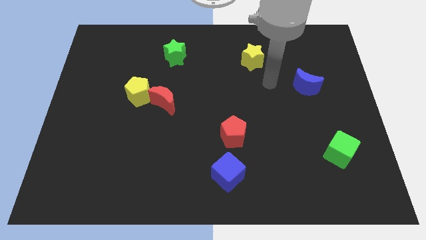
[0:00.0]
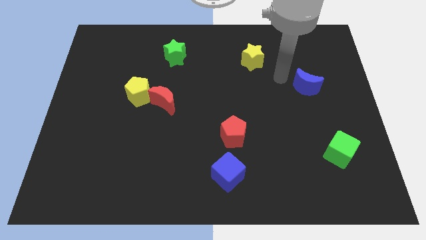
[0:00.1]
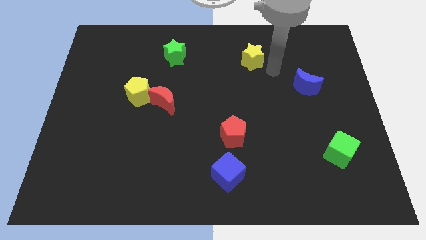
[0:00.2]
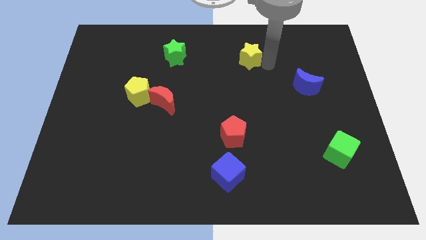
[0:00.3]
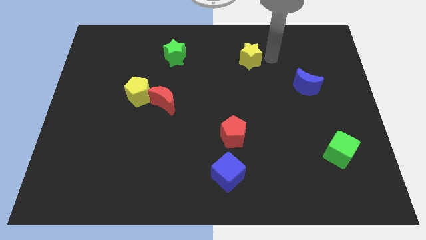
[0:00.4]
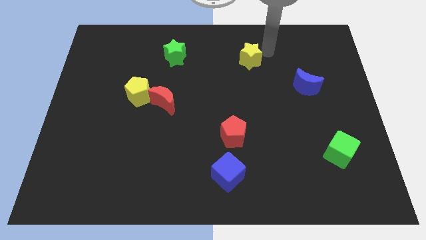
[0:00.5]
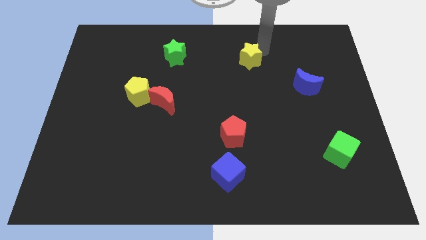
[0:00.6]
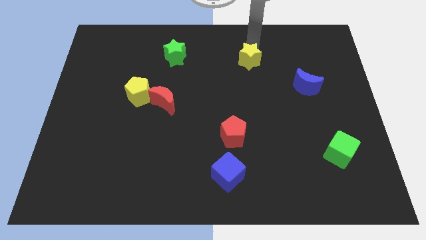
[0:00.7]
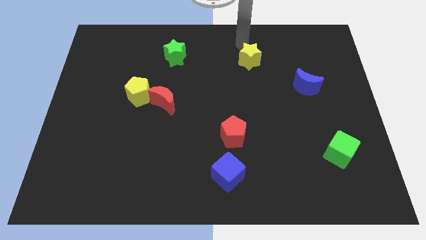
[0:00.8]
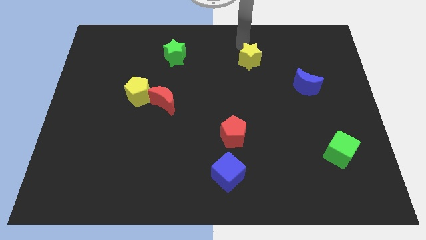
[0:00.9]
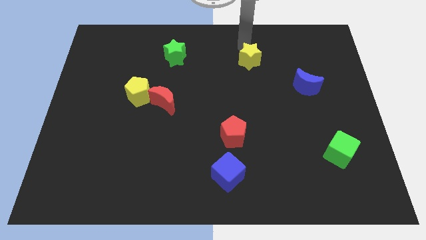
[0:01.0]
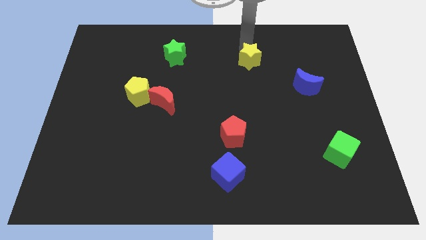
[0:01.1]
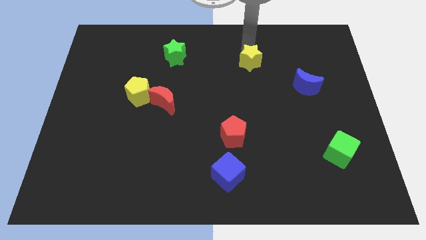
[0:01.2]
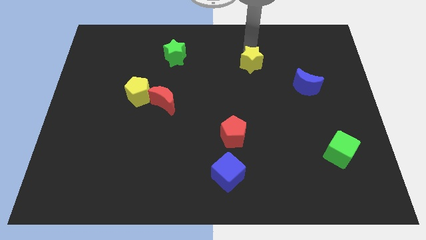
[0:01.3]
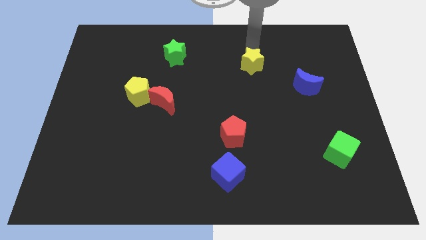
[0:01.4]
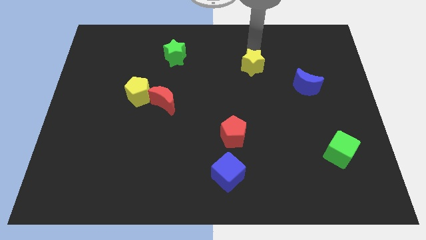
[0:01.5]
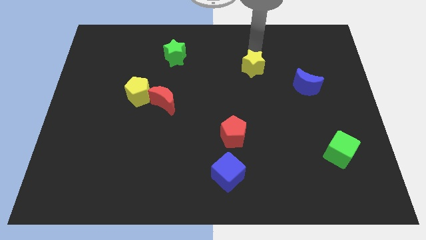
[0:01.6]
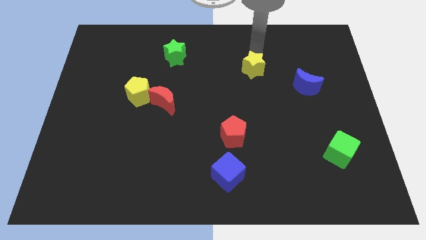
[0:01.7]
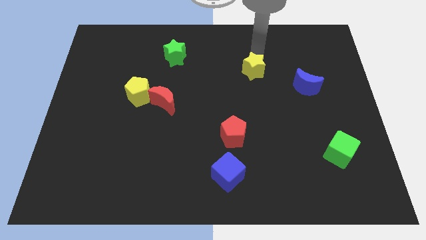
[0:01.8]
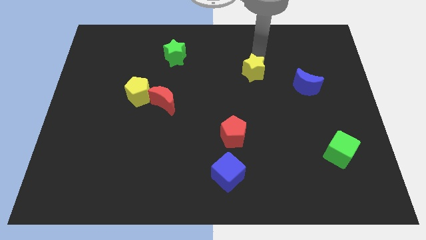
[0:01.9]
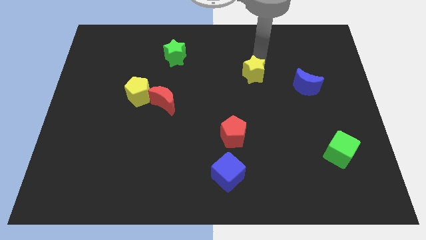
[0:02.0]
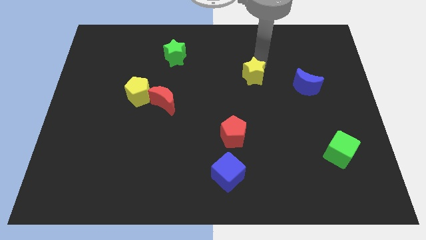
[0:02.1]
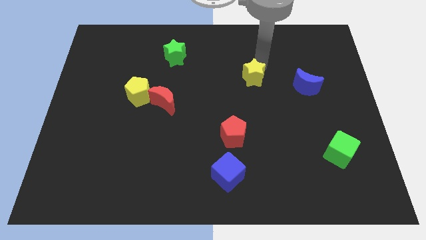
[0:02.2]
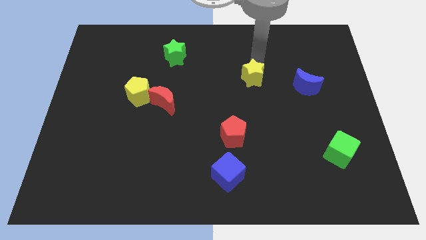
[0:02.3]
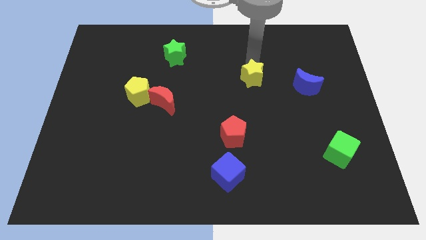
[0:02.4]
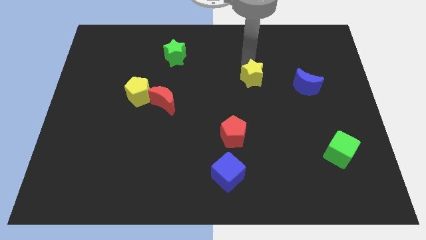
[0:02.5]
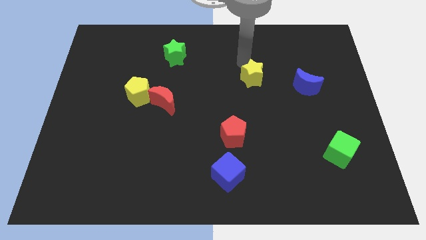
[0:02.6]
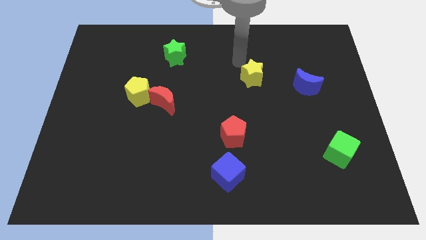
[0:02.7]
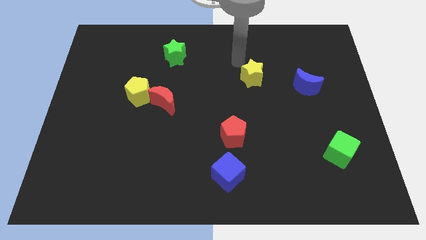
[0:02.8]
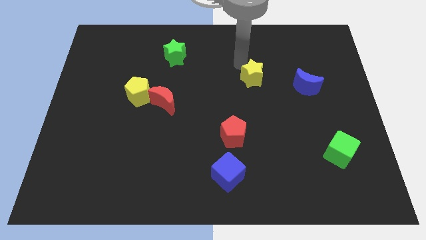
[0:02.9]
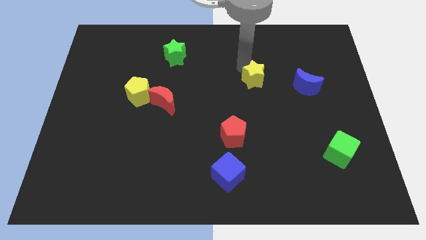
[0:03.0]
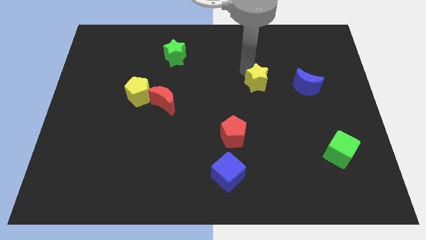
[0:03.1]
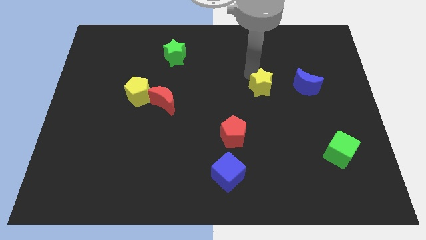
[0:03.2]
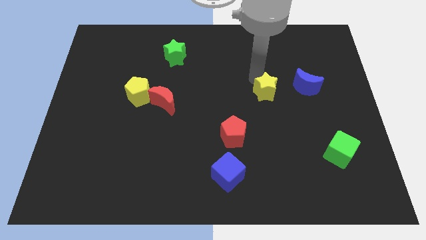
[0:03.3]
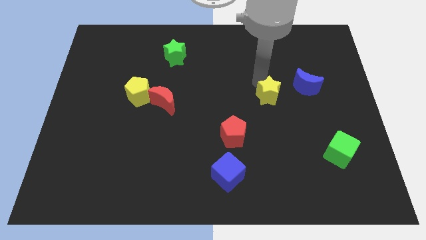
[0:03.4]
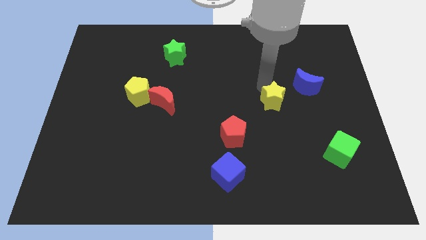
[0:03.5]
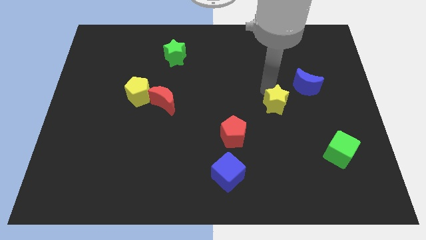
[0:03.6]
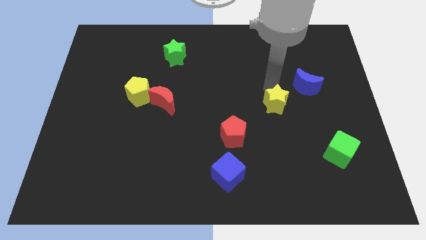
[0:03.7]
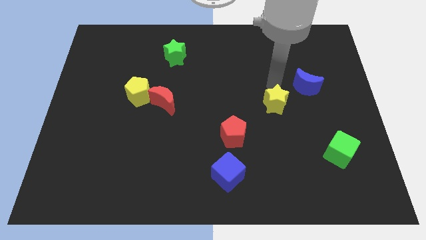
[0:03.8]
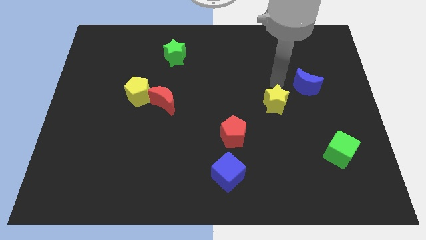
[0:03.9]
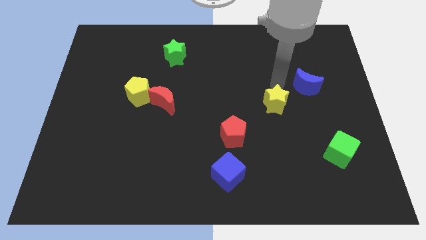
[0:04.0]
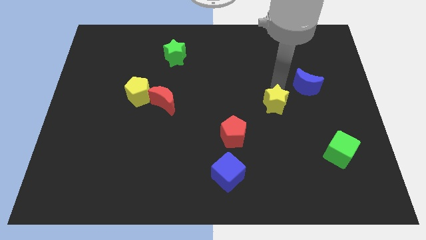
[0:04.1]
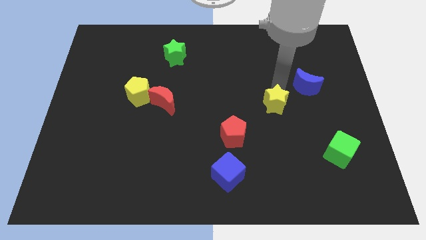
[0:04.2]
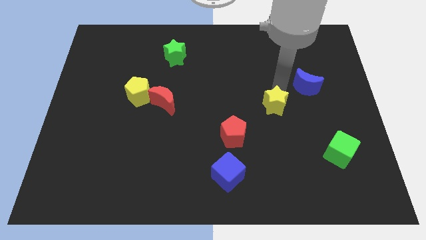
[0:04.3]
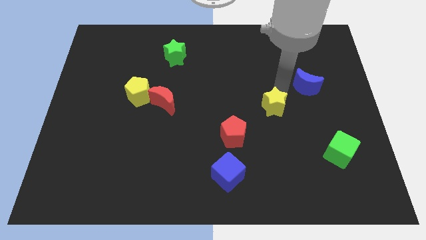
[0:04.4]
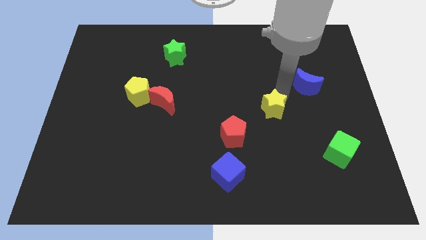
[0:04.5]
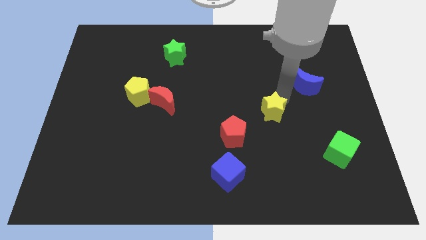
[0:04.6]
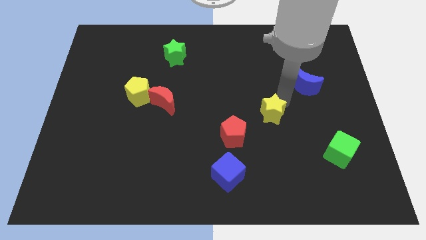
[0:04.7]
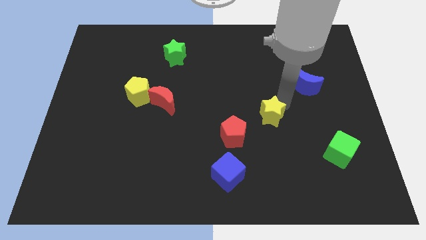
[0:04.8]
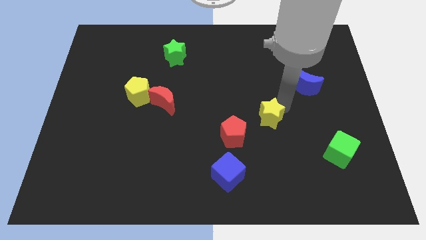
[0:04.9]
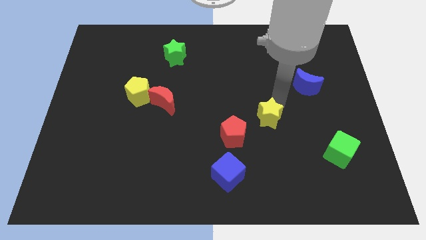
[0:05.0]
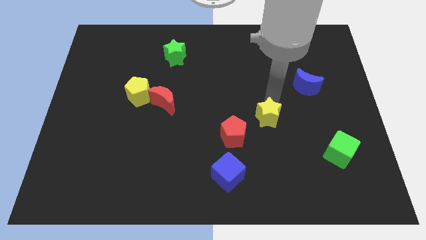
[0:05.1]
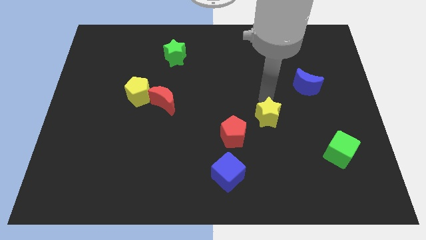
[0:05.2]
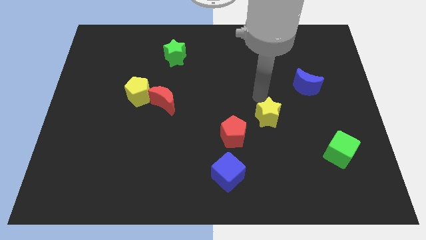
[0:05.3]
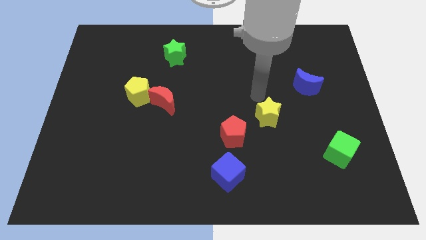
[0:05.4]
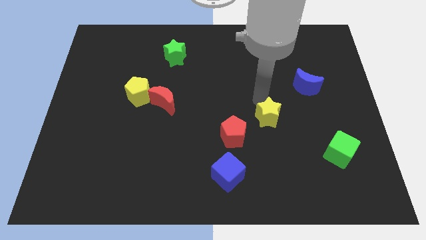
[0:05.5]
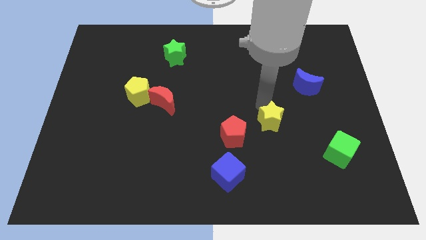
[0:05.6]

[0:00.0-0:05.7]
move the yellow star right of the red pentagon

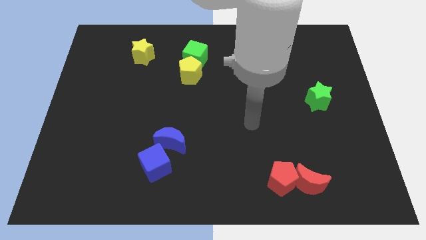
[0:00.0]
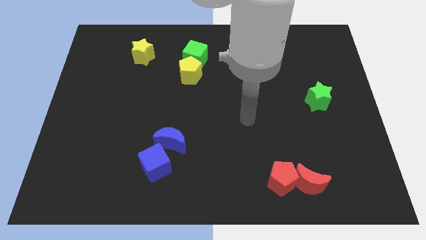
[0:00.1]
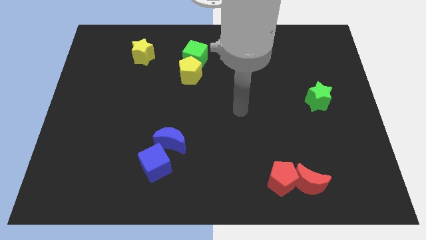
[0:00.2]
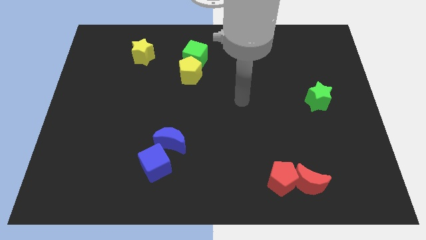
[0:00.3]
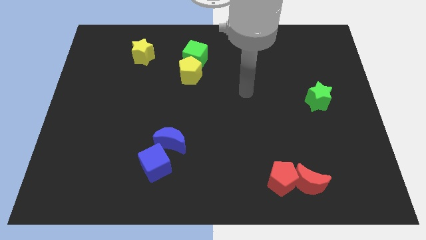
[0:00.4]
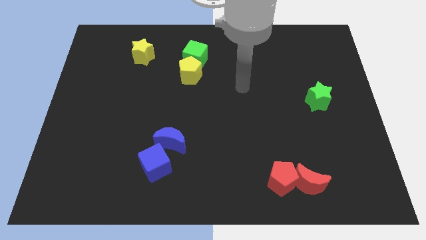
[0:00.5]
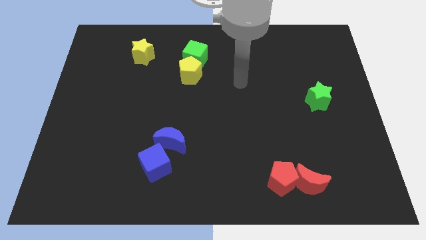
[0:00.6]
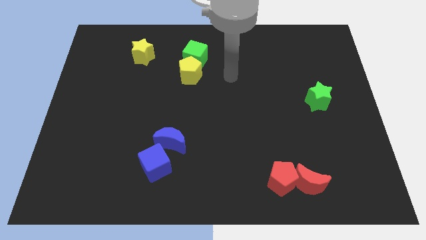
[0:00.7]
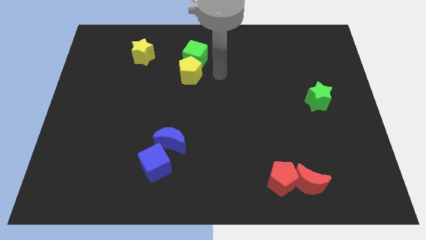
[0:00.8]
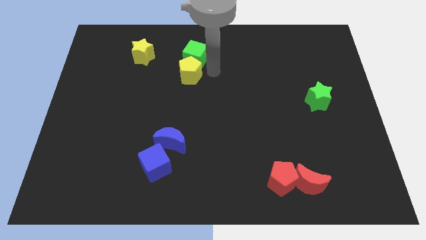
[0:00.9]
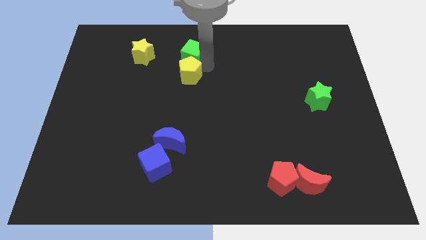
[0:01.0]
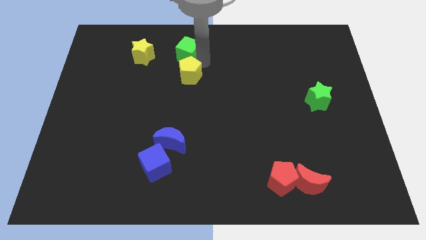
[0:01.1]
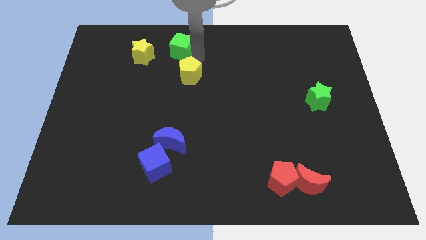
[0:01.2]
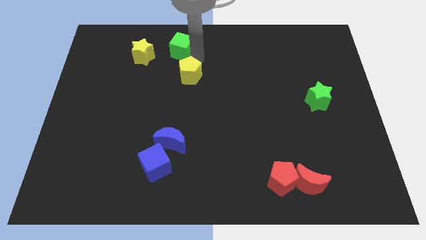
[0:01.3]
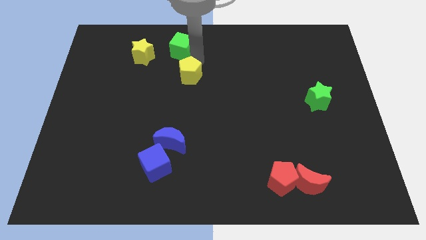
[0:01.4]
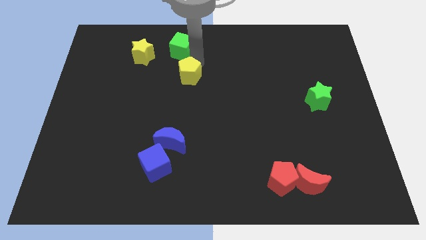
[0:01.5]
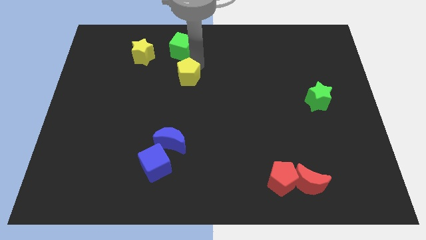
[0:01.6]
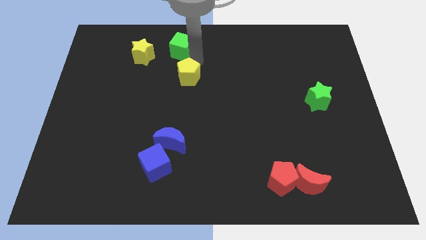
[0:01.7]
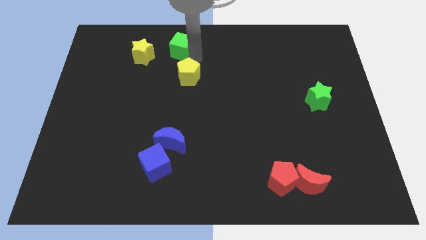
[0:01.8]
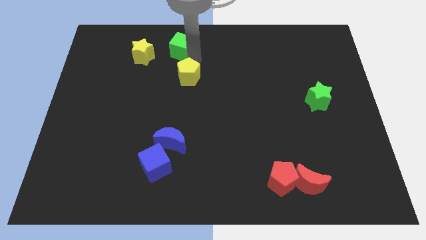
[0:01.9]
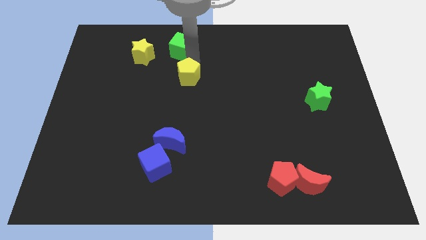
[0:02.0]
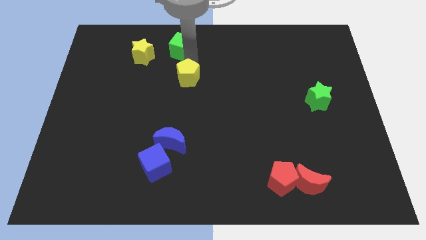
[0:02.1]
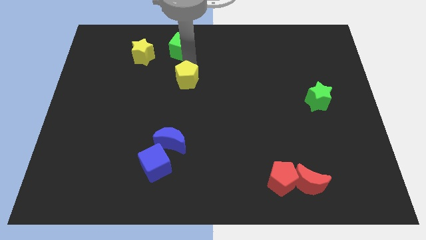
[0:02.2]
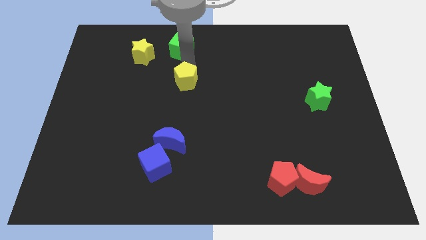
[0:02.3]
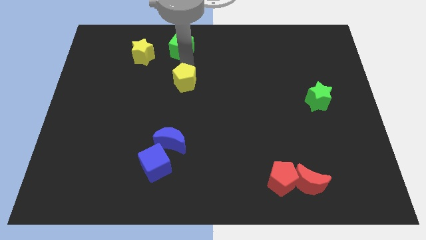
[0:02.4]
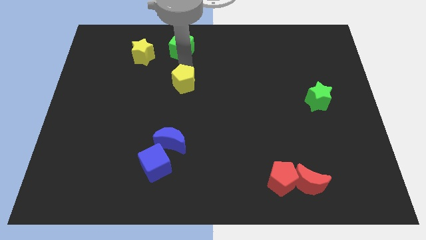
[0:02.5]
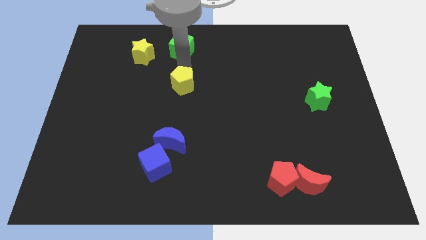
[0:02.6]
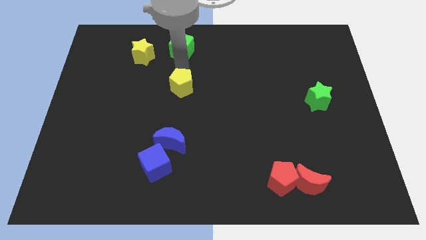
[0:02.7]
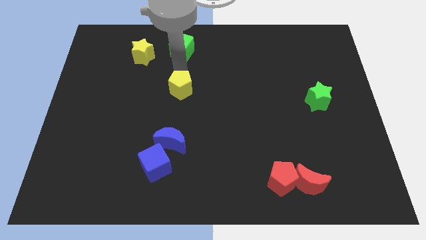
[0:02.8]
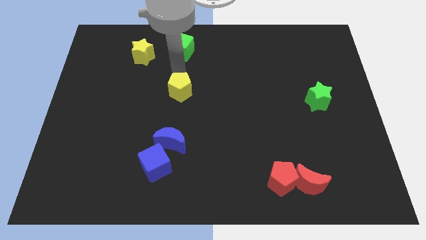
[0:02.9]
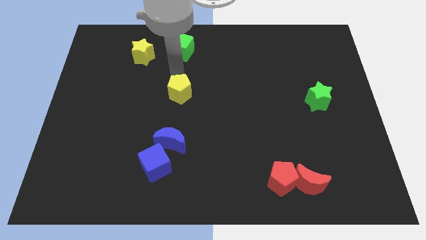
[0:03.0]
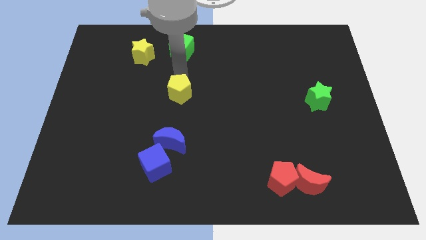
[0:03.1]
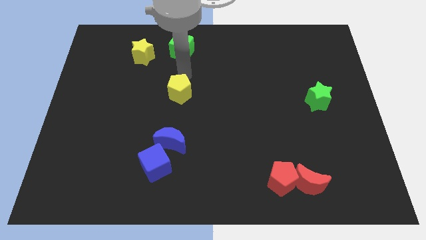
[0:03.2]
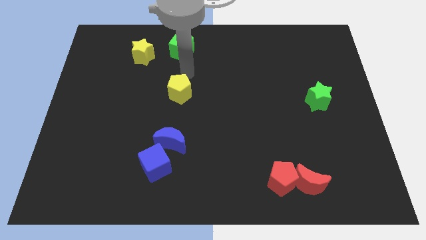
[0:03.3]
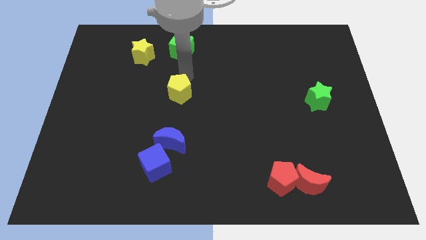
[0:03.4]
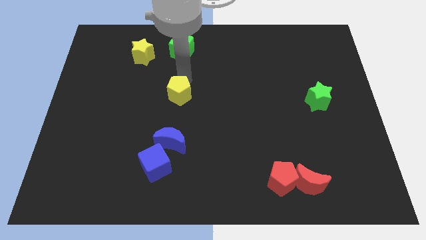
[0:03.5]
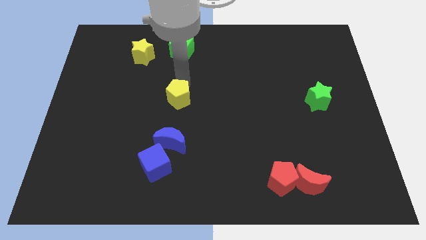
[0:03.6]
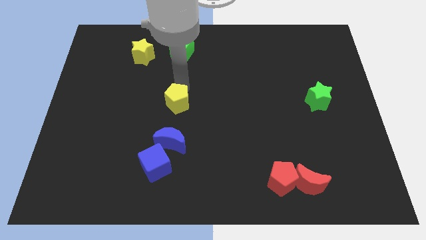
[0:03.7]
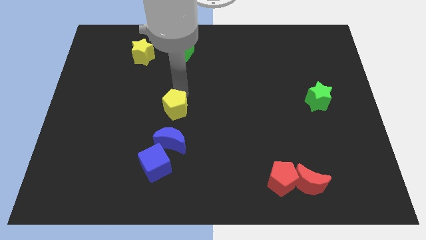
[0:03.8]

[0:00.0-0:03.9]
put the yellow pentagon to the top of the blue cube
